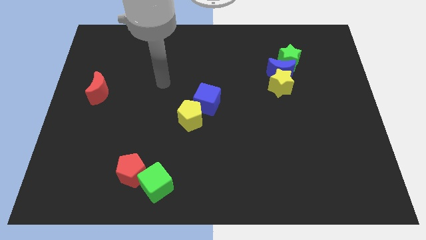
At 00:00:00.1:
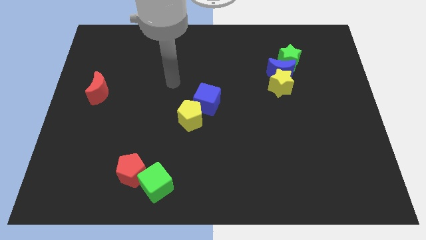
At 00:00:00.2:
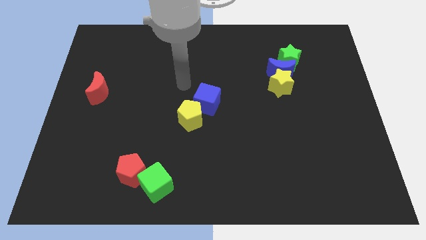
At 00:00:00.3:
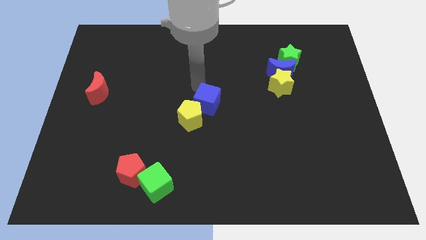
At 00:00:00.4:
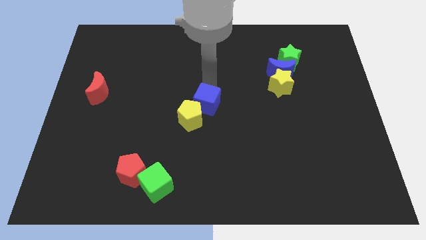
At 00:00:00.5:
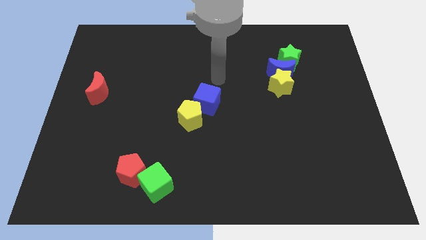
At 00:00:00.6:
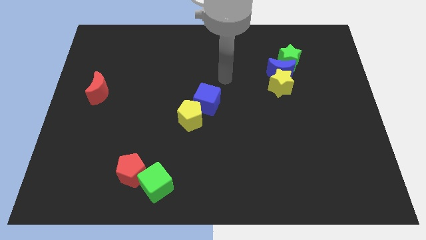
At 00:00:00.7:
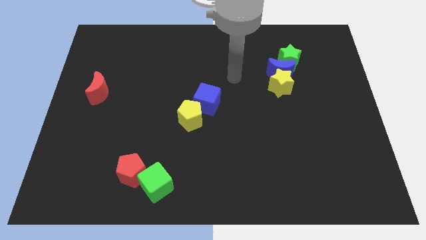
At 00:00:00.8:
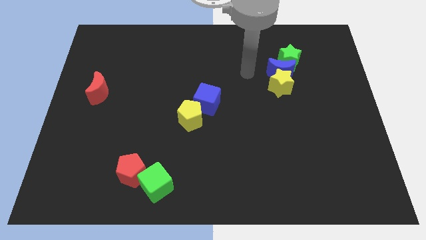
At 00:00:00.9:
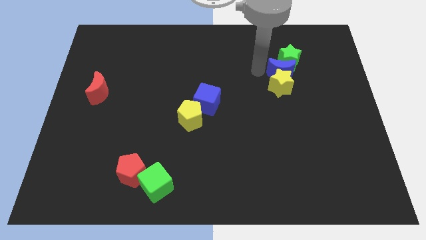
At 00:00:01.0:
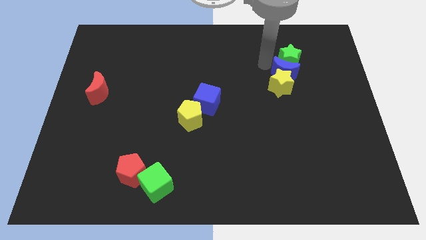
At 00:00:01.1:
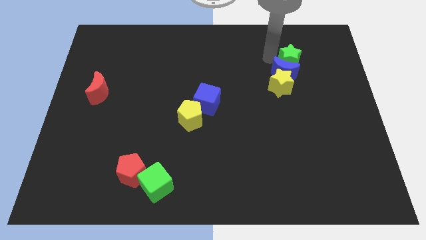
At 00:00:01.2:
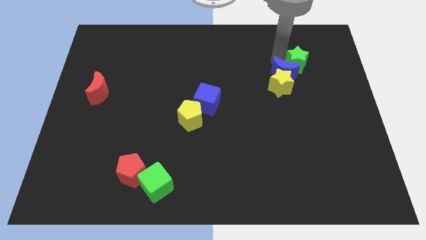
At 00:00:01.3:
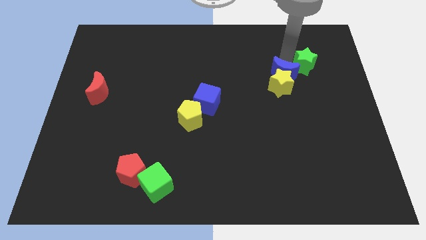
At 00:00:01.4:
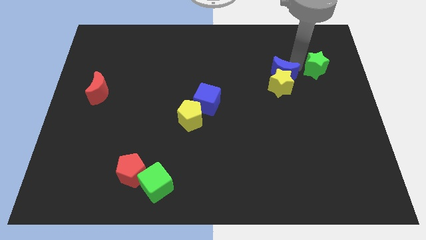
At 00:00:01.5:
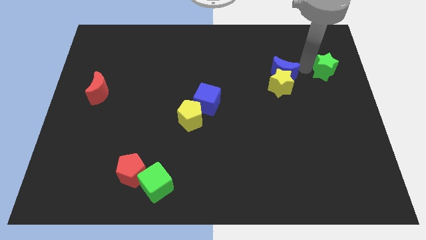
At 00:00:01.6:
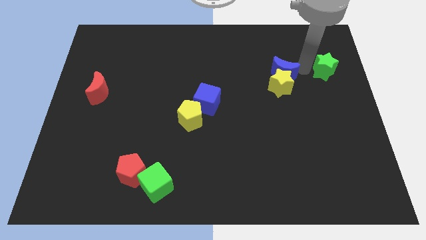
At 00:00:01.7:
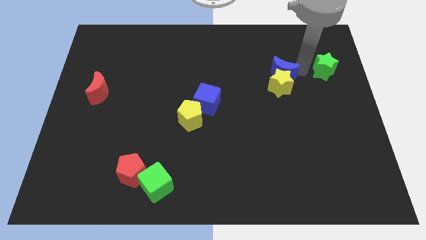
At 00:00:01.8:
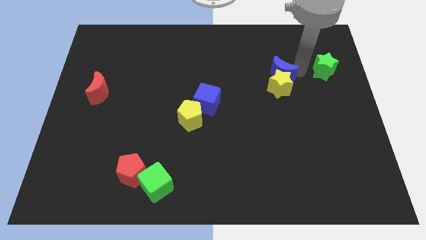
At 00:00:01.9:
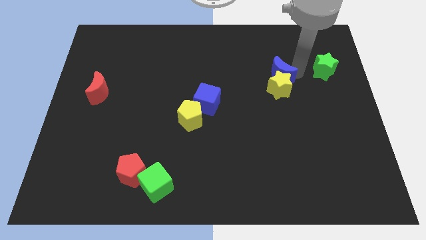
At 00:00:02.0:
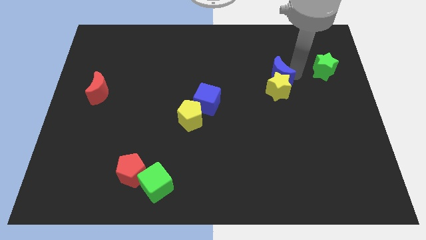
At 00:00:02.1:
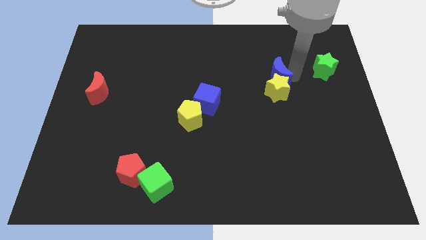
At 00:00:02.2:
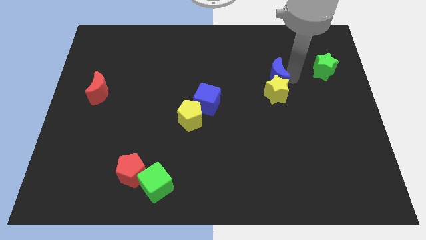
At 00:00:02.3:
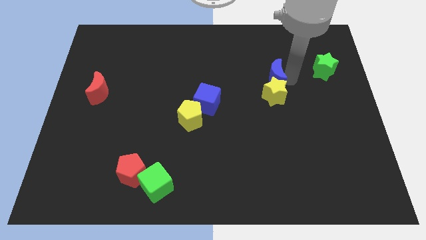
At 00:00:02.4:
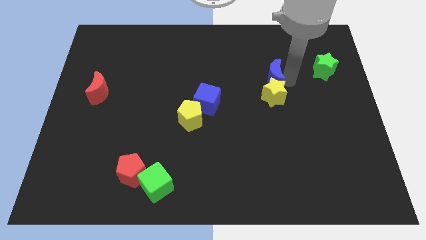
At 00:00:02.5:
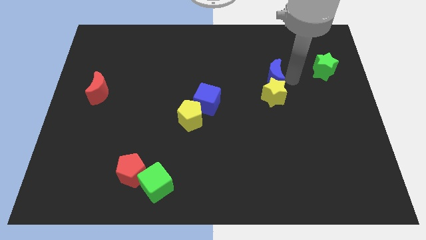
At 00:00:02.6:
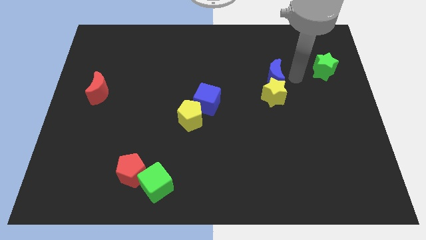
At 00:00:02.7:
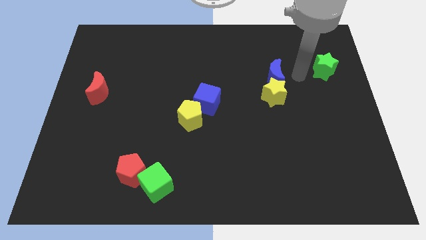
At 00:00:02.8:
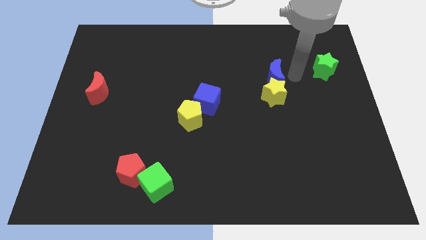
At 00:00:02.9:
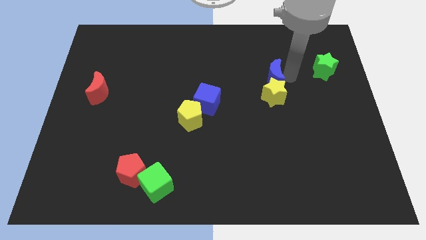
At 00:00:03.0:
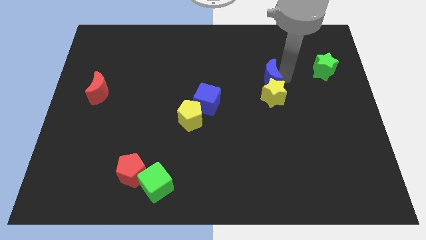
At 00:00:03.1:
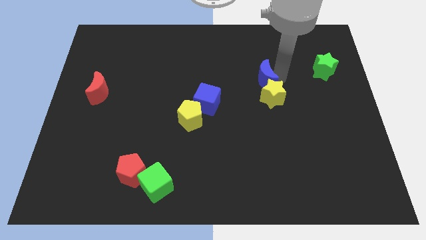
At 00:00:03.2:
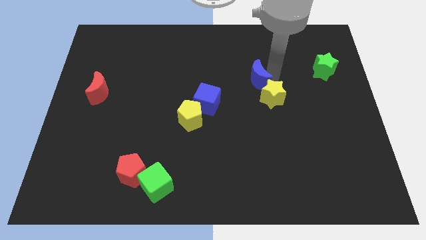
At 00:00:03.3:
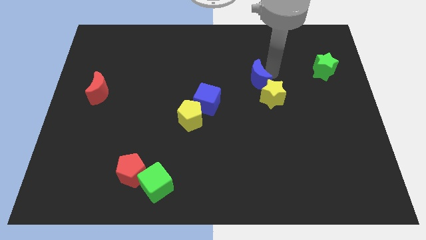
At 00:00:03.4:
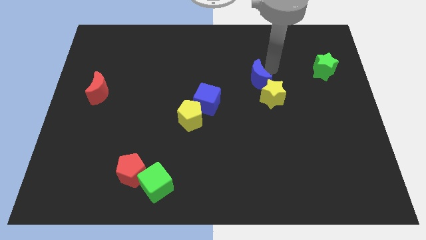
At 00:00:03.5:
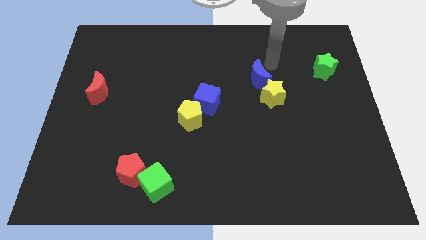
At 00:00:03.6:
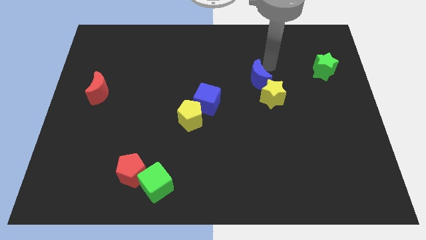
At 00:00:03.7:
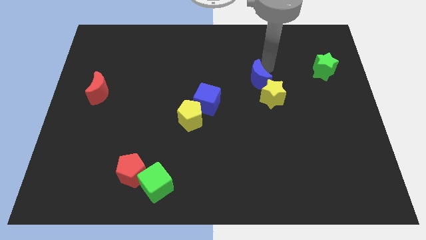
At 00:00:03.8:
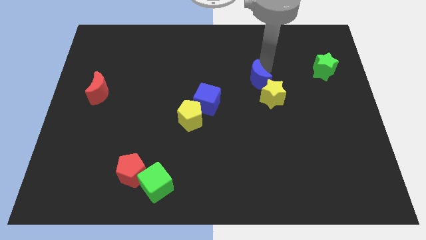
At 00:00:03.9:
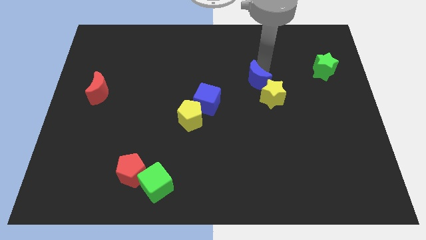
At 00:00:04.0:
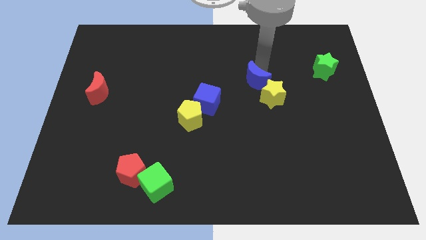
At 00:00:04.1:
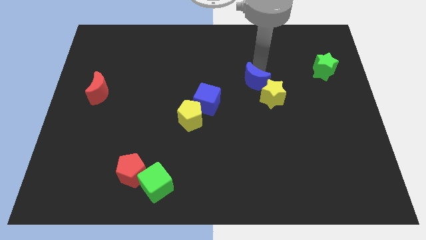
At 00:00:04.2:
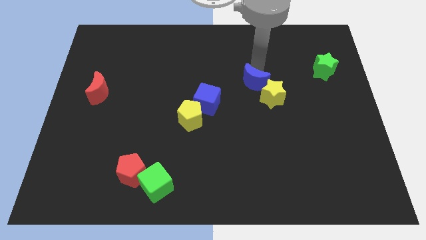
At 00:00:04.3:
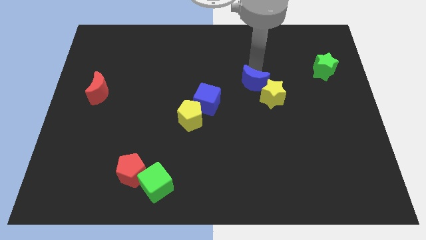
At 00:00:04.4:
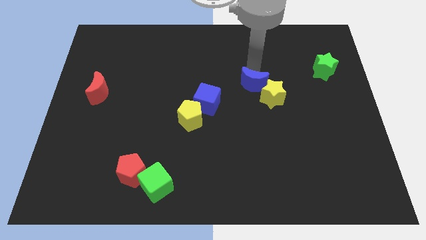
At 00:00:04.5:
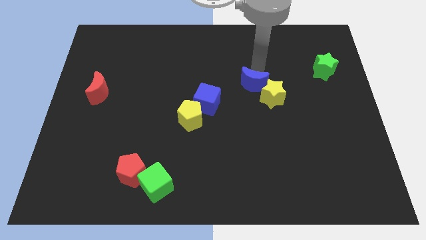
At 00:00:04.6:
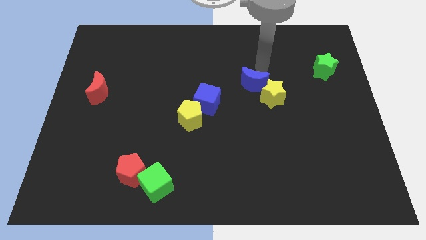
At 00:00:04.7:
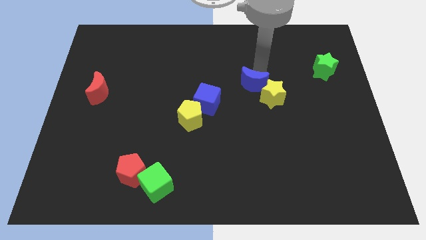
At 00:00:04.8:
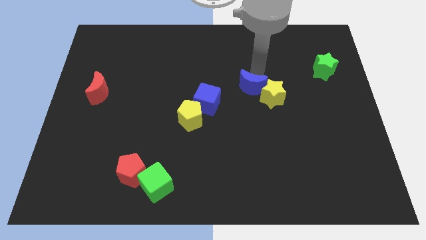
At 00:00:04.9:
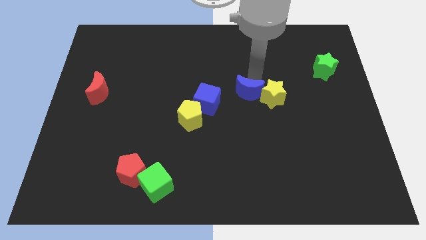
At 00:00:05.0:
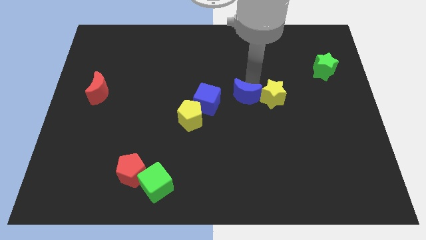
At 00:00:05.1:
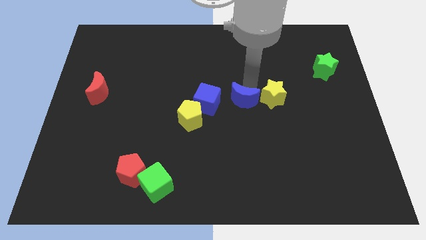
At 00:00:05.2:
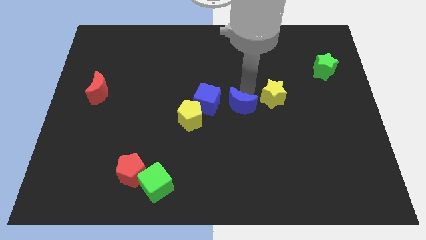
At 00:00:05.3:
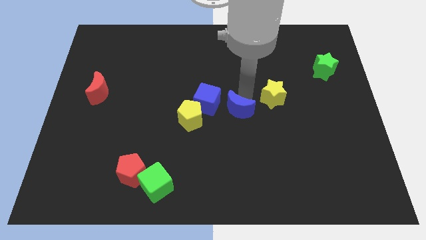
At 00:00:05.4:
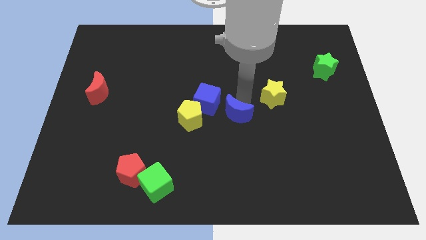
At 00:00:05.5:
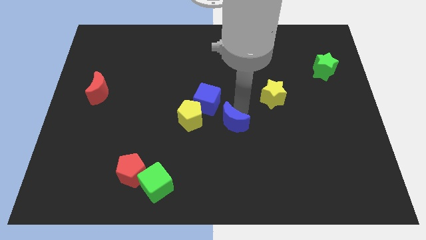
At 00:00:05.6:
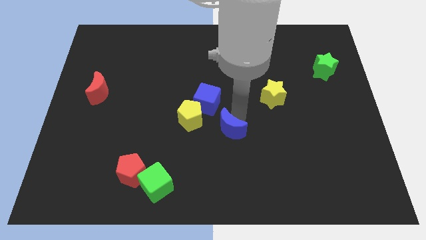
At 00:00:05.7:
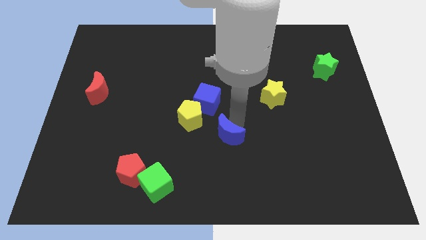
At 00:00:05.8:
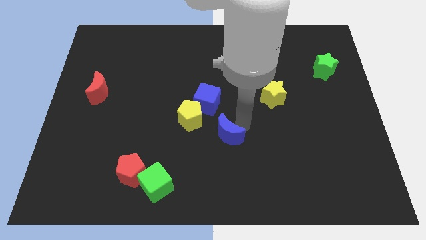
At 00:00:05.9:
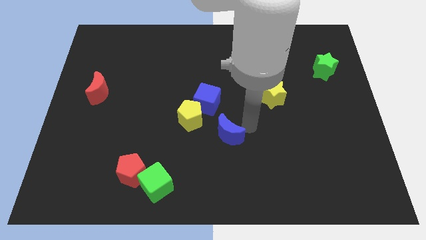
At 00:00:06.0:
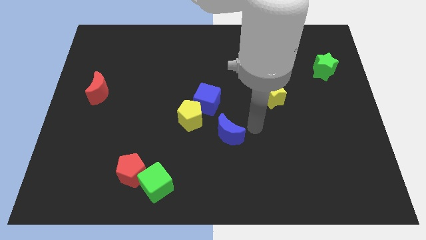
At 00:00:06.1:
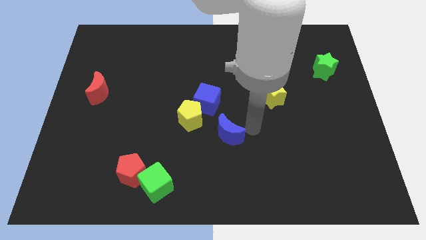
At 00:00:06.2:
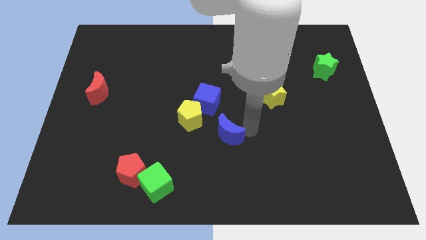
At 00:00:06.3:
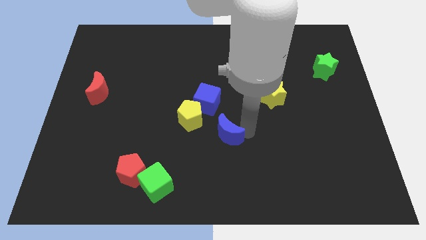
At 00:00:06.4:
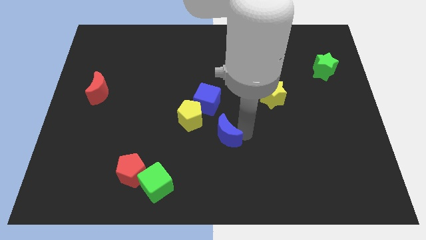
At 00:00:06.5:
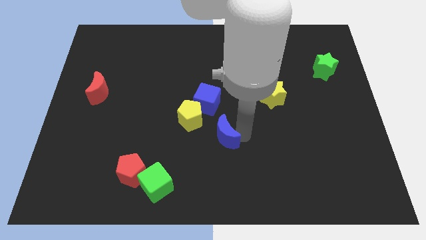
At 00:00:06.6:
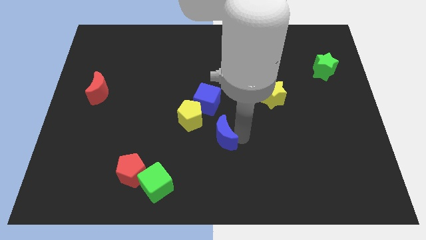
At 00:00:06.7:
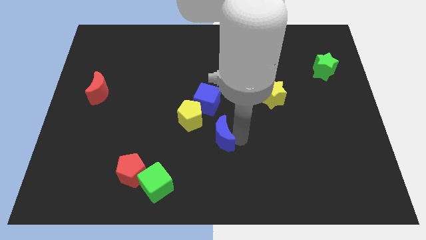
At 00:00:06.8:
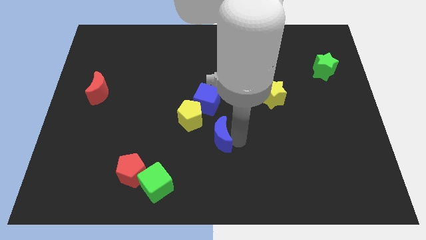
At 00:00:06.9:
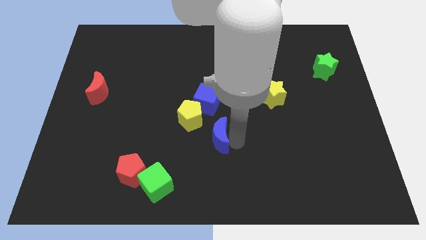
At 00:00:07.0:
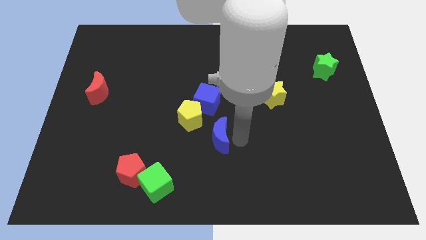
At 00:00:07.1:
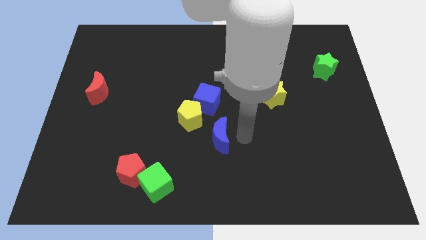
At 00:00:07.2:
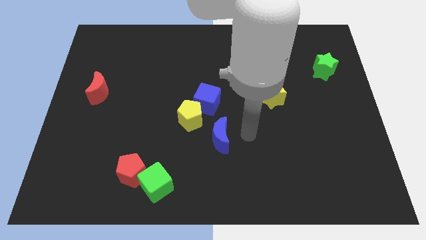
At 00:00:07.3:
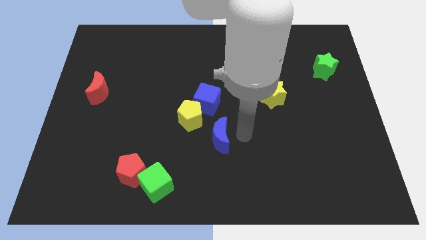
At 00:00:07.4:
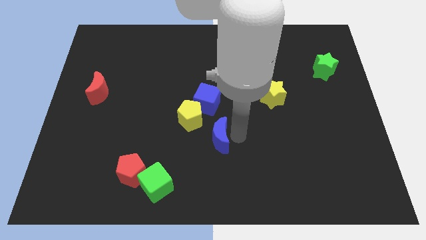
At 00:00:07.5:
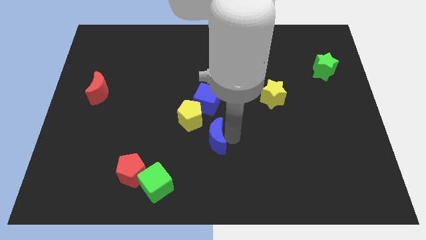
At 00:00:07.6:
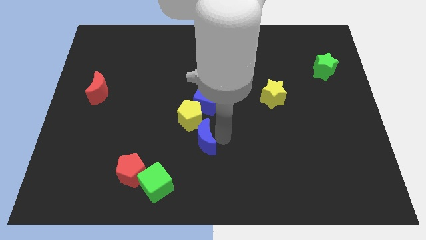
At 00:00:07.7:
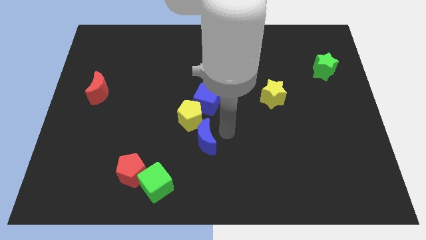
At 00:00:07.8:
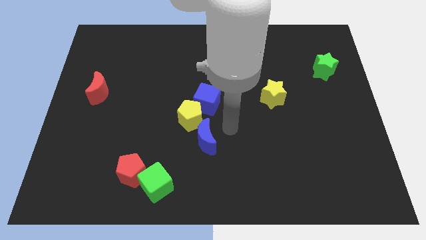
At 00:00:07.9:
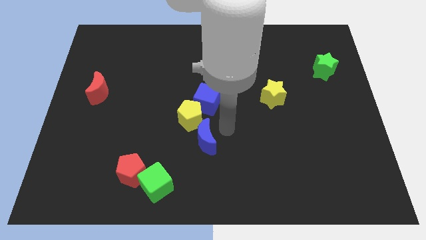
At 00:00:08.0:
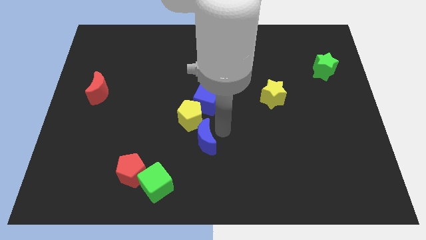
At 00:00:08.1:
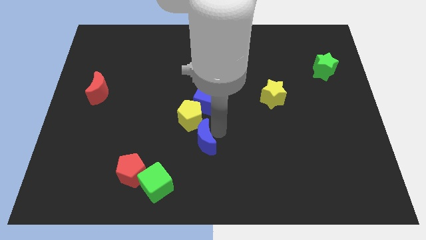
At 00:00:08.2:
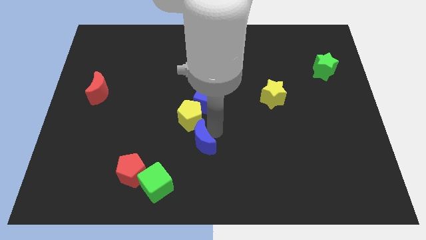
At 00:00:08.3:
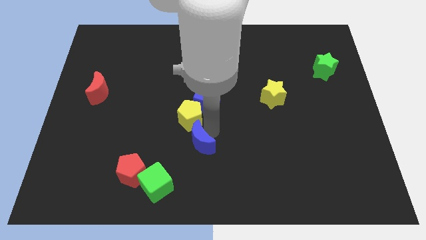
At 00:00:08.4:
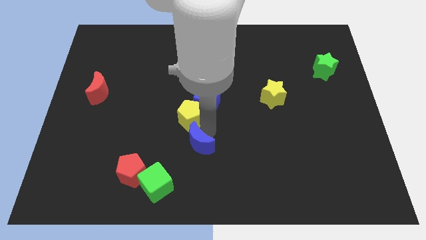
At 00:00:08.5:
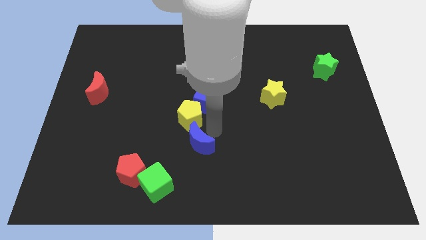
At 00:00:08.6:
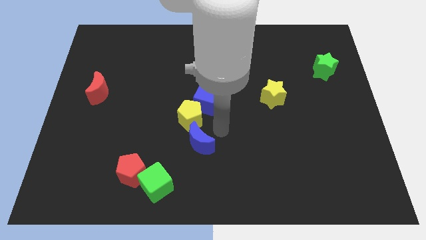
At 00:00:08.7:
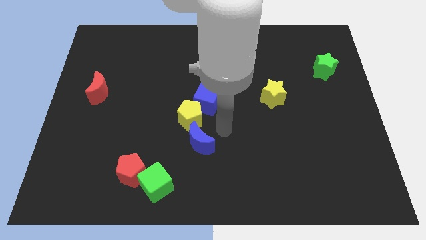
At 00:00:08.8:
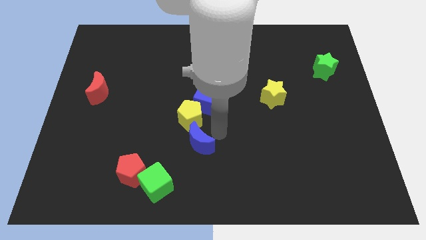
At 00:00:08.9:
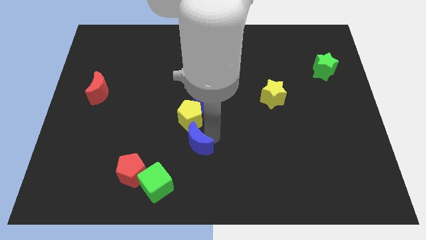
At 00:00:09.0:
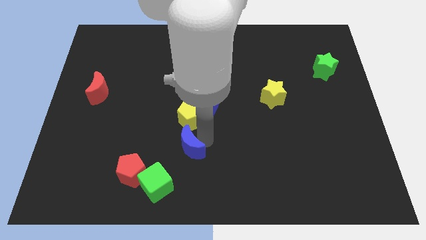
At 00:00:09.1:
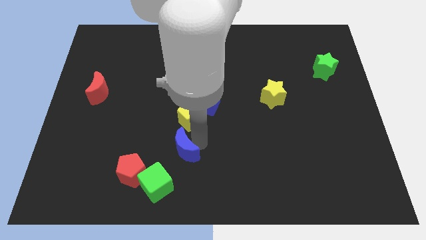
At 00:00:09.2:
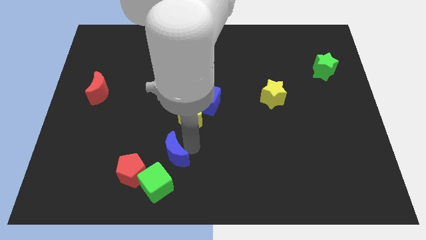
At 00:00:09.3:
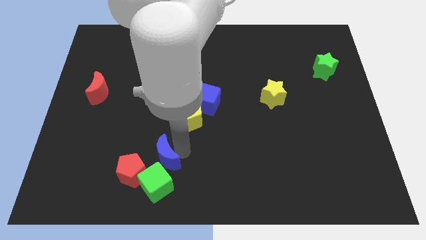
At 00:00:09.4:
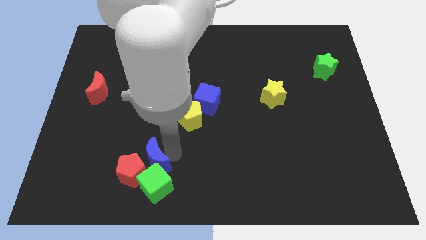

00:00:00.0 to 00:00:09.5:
push the blue moon towards the red pentagon
